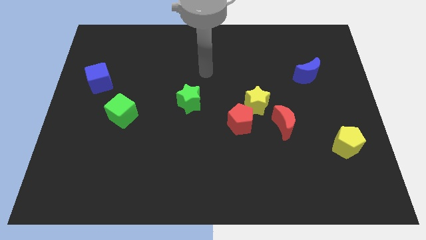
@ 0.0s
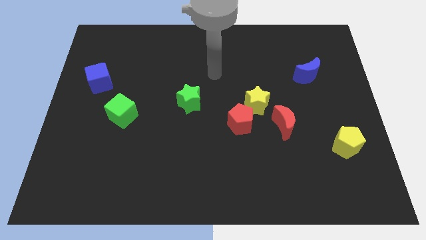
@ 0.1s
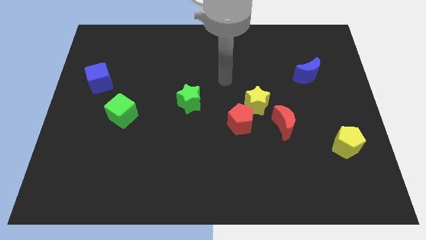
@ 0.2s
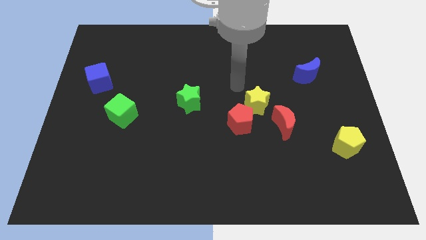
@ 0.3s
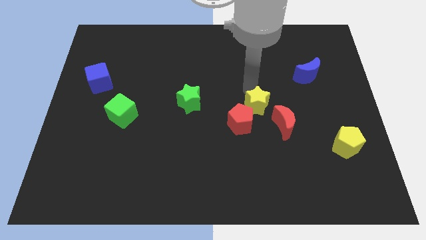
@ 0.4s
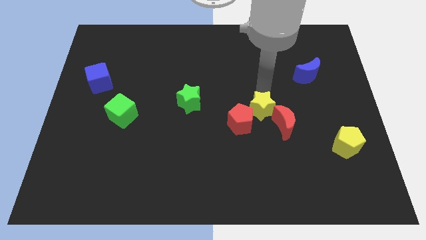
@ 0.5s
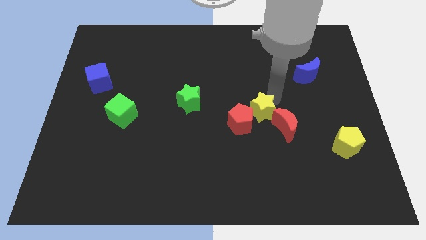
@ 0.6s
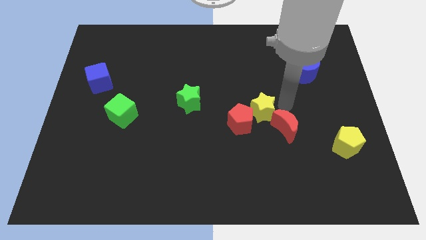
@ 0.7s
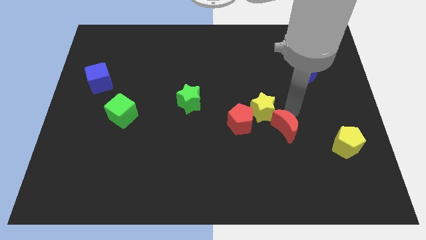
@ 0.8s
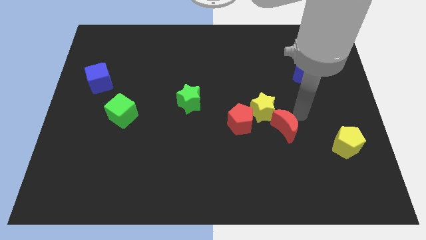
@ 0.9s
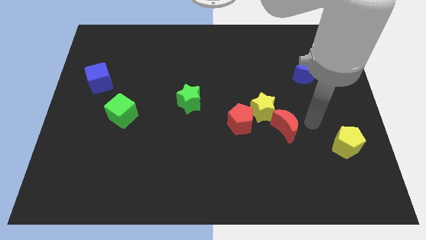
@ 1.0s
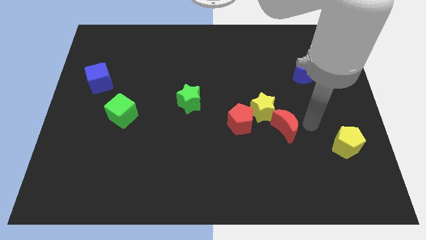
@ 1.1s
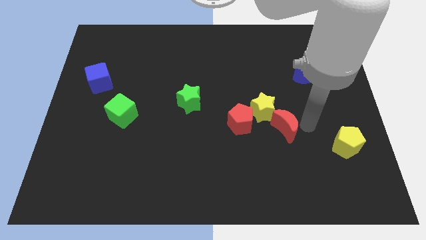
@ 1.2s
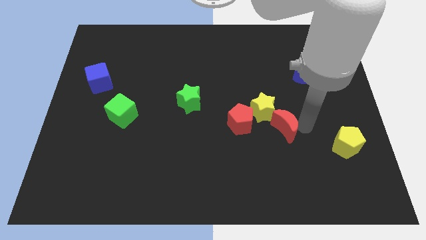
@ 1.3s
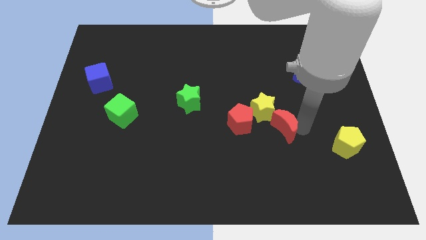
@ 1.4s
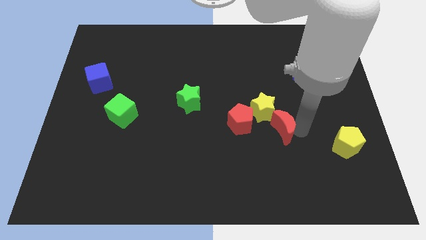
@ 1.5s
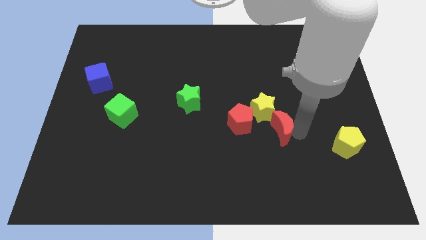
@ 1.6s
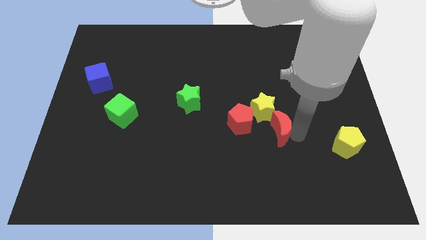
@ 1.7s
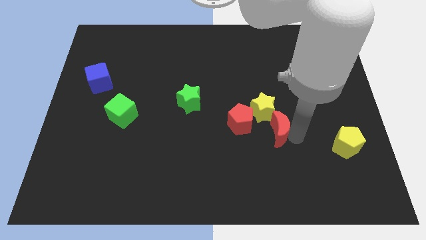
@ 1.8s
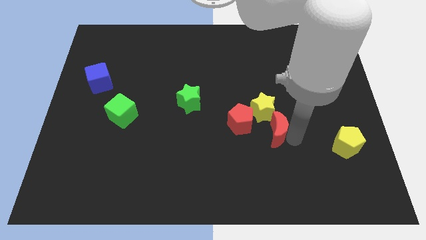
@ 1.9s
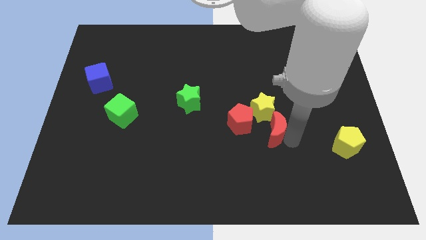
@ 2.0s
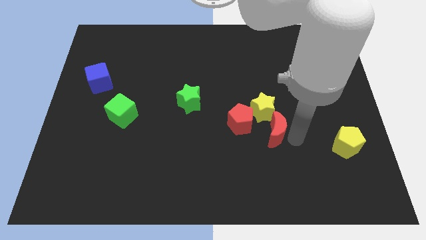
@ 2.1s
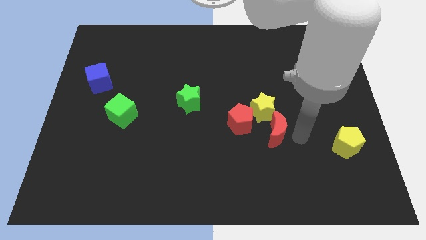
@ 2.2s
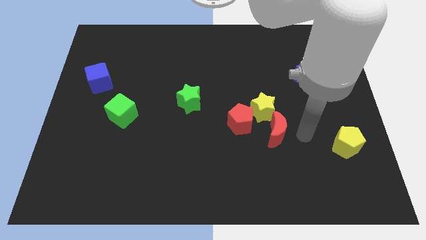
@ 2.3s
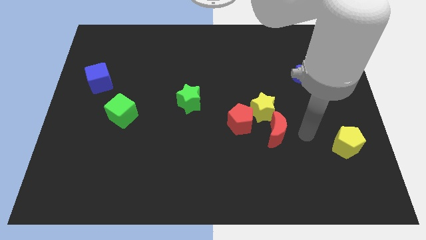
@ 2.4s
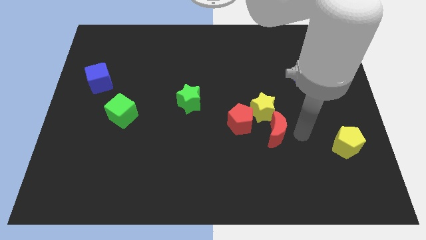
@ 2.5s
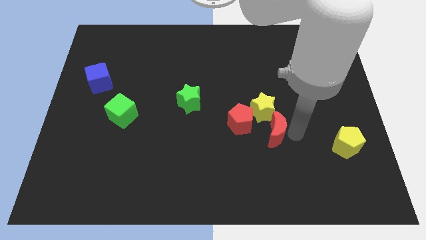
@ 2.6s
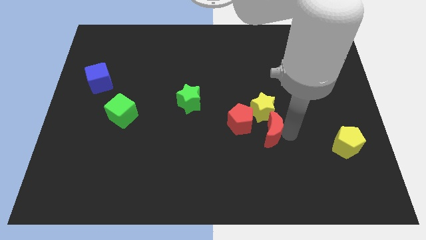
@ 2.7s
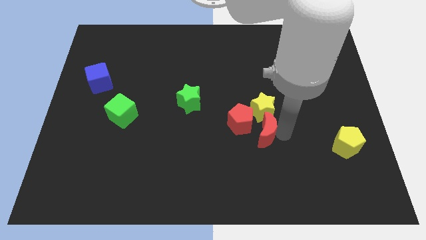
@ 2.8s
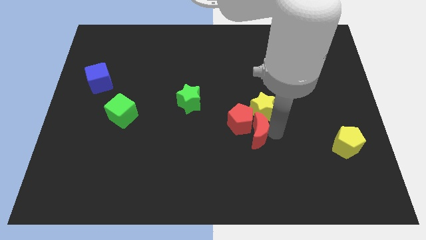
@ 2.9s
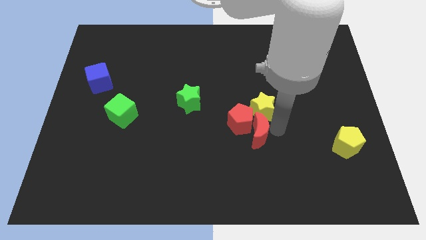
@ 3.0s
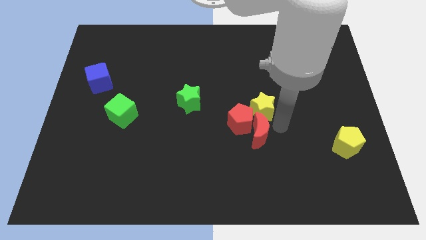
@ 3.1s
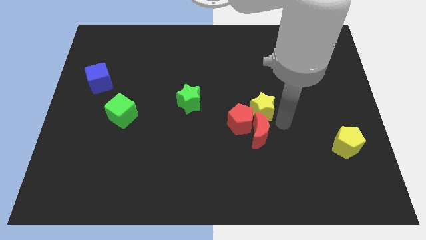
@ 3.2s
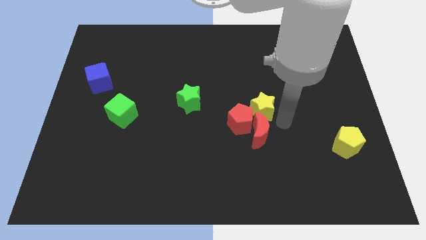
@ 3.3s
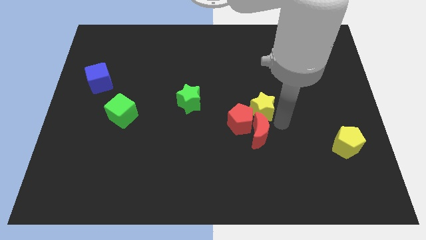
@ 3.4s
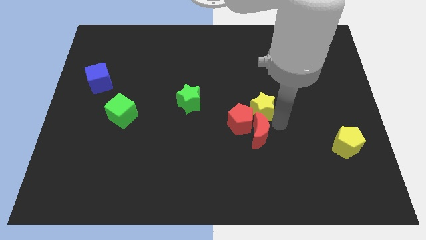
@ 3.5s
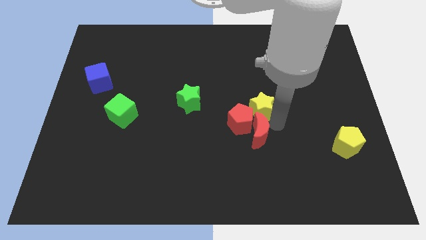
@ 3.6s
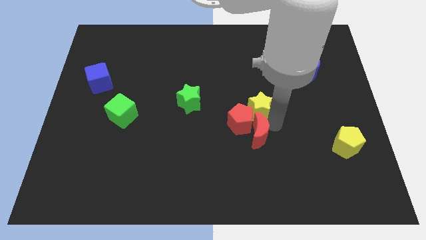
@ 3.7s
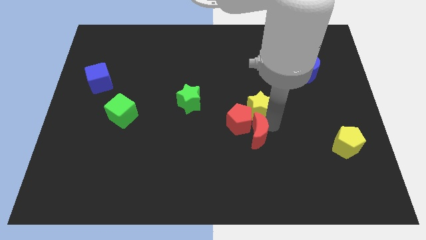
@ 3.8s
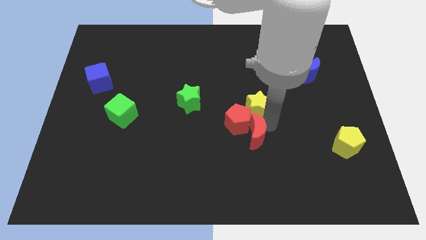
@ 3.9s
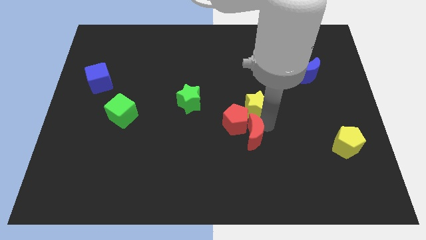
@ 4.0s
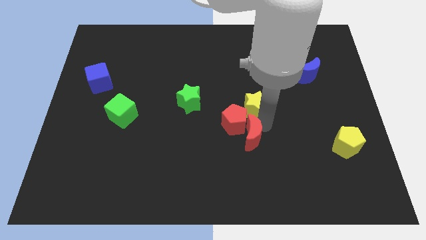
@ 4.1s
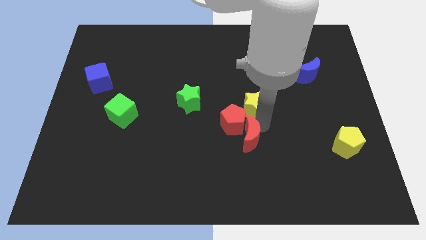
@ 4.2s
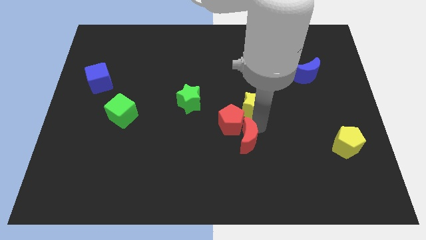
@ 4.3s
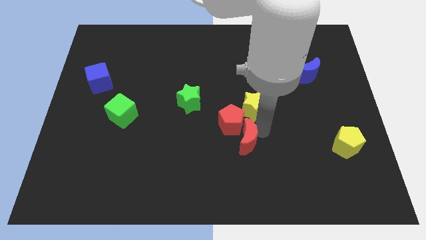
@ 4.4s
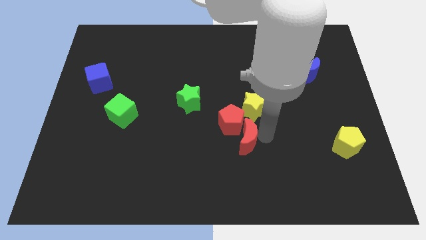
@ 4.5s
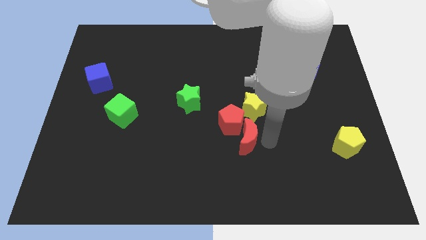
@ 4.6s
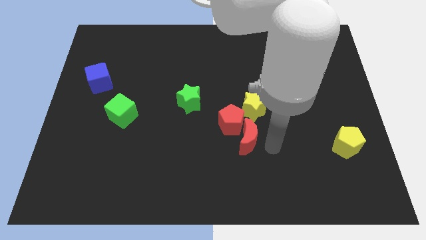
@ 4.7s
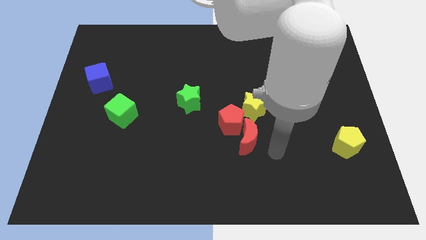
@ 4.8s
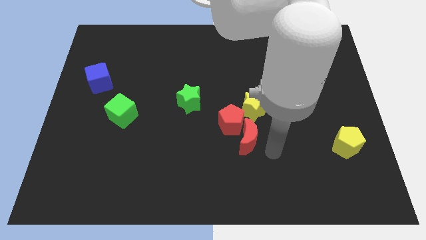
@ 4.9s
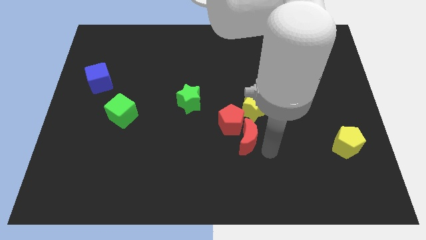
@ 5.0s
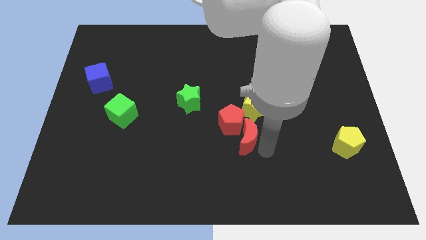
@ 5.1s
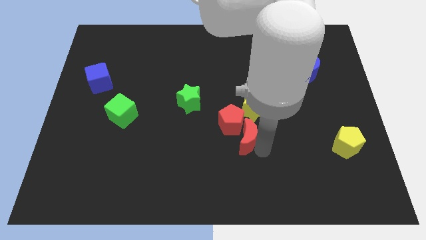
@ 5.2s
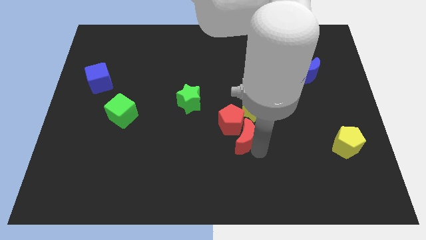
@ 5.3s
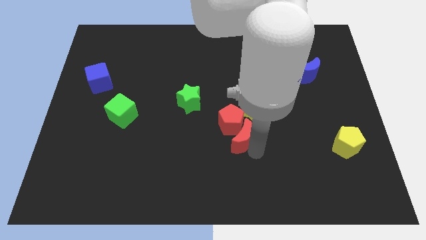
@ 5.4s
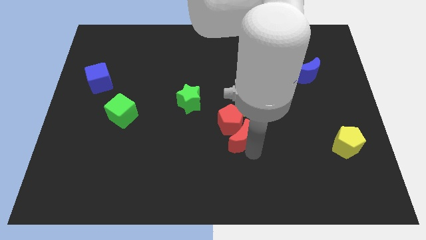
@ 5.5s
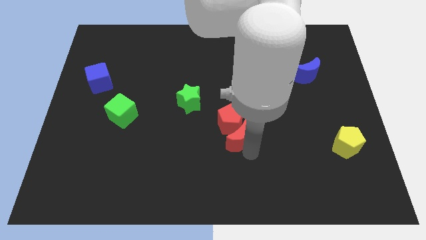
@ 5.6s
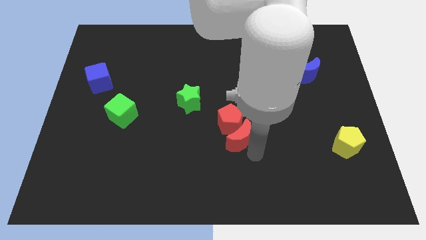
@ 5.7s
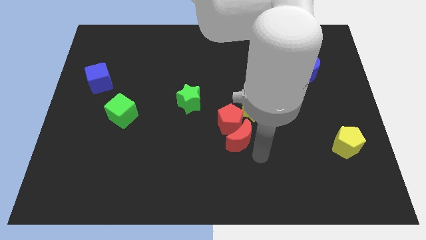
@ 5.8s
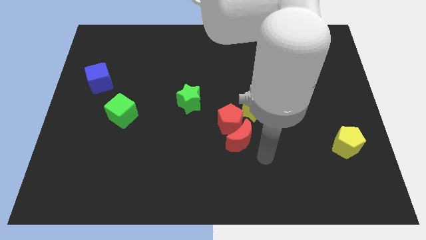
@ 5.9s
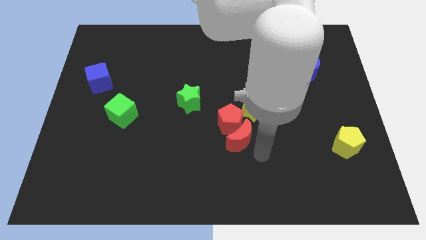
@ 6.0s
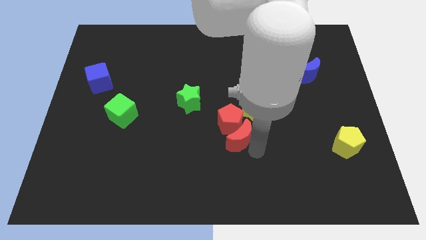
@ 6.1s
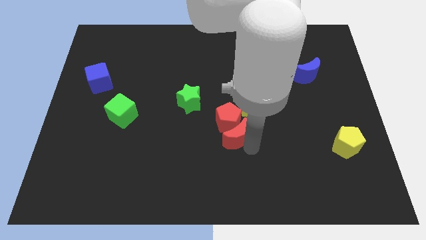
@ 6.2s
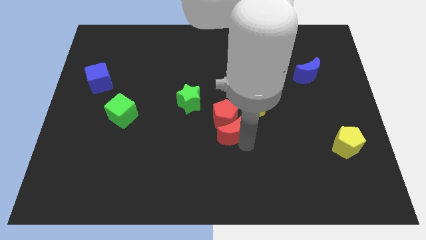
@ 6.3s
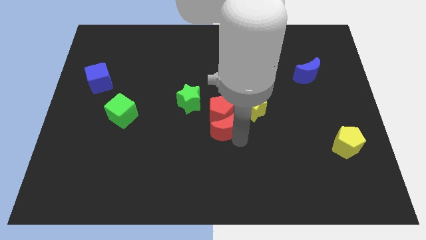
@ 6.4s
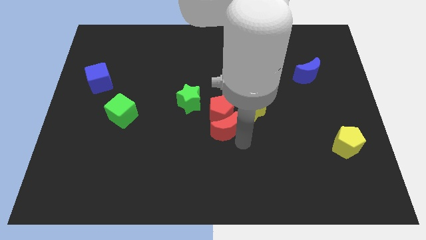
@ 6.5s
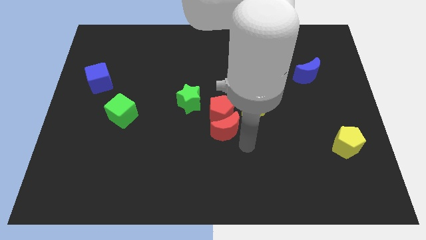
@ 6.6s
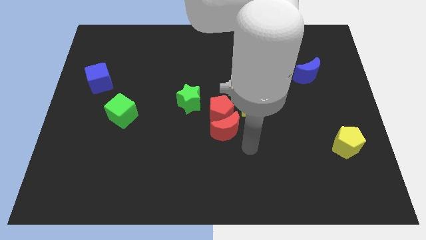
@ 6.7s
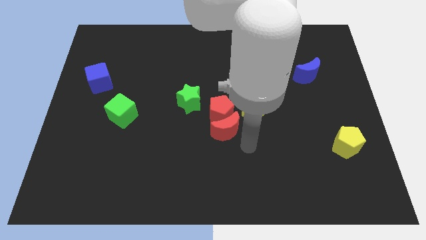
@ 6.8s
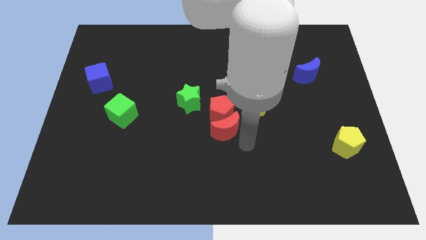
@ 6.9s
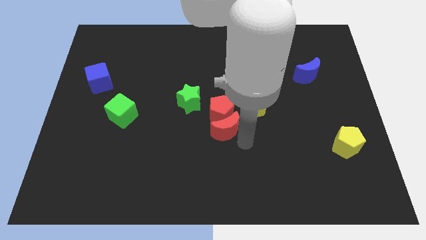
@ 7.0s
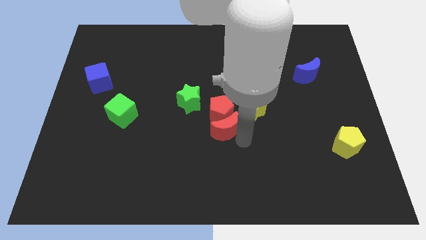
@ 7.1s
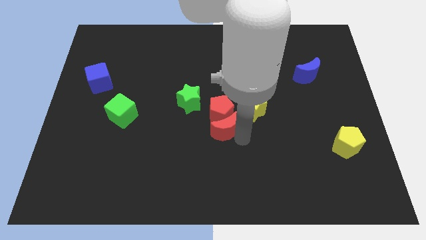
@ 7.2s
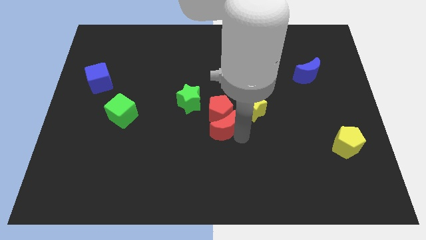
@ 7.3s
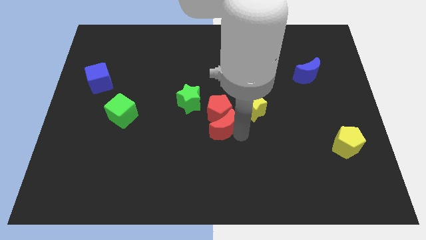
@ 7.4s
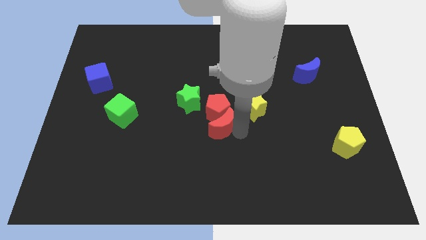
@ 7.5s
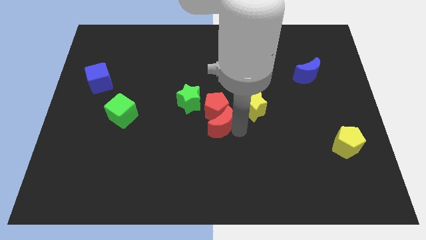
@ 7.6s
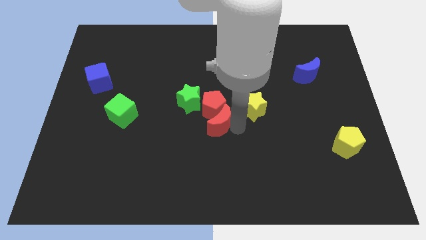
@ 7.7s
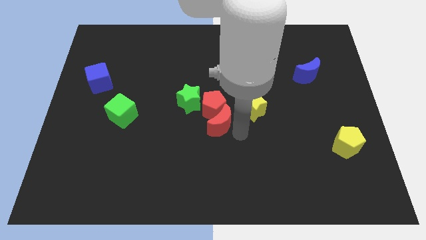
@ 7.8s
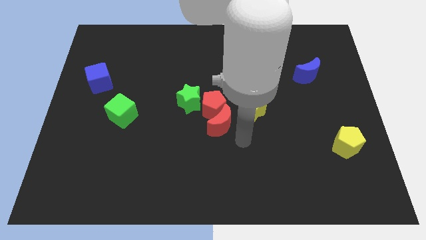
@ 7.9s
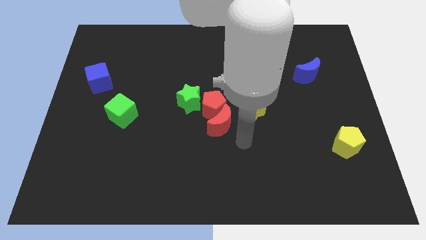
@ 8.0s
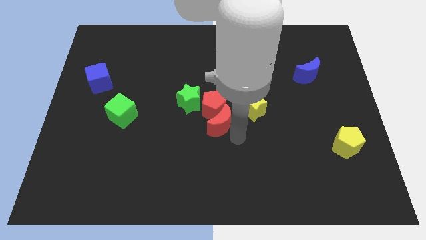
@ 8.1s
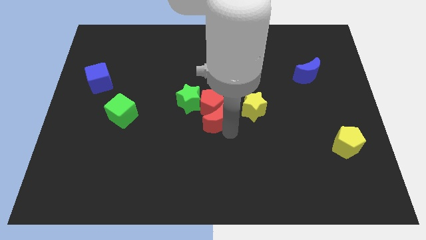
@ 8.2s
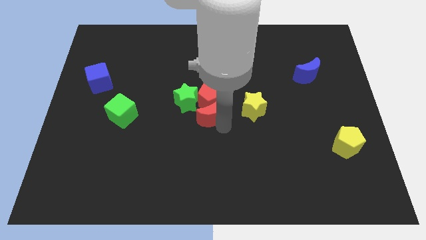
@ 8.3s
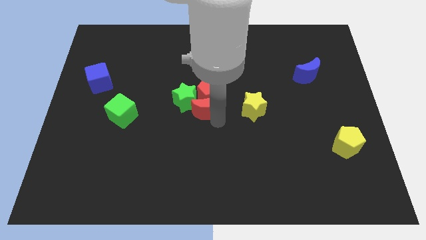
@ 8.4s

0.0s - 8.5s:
push the red moon next to the green star
